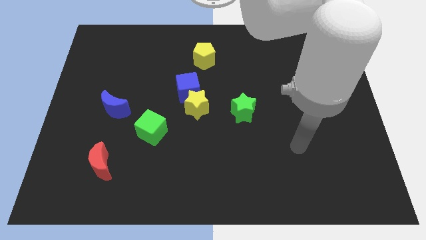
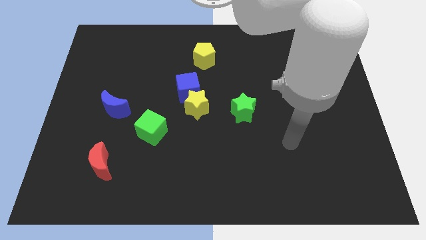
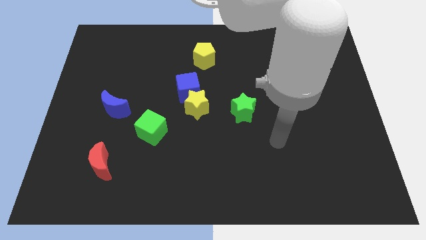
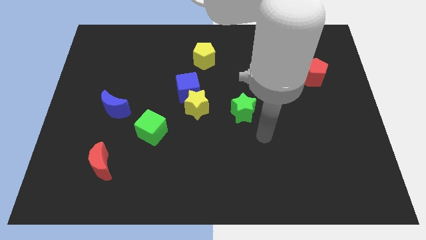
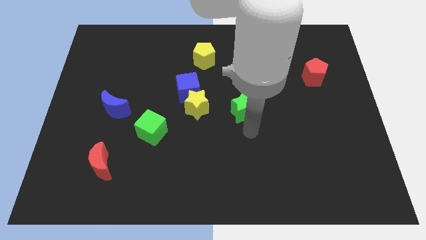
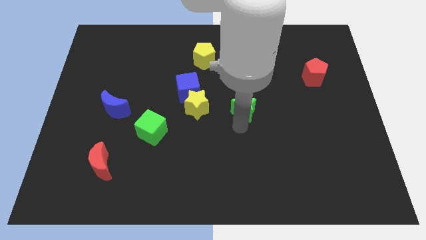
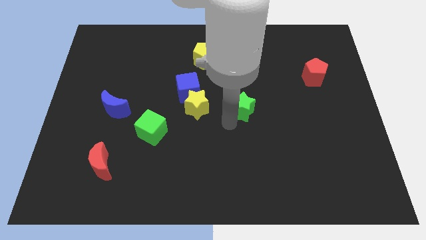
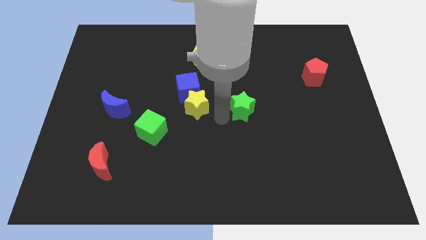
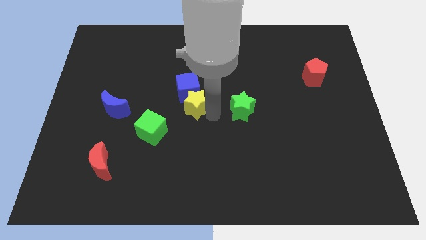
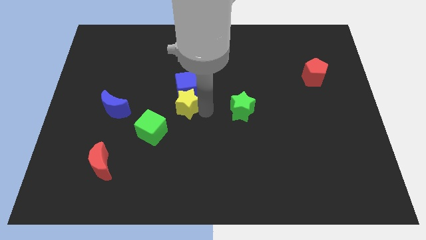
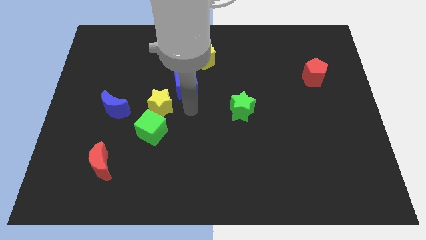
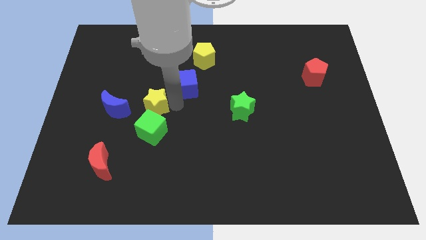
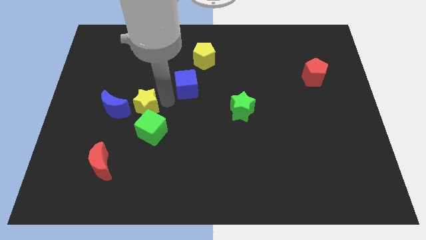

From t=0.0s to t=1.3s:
move the blue cube away from the yellow star

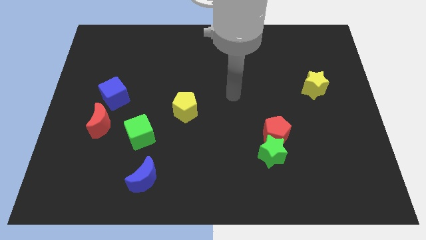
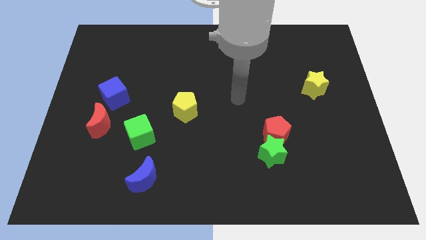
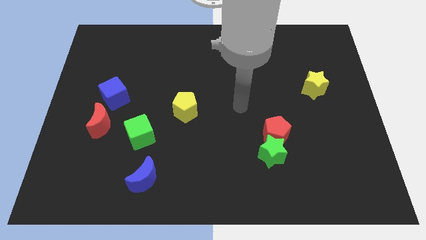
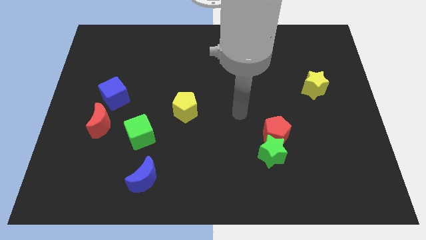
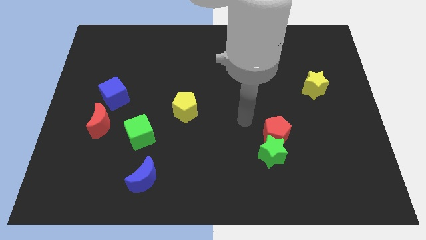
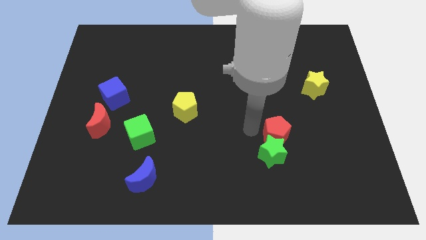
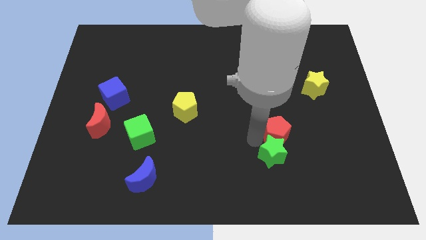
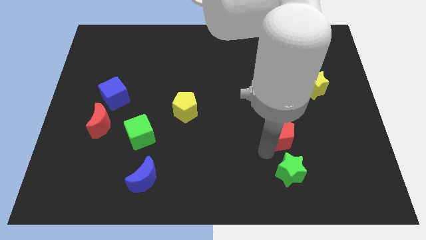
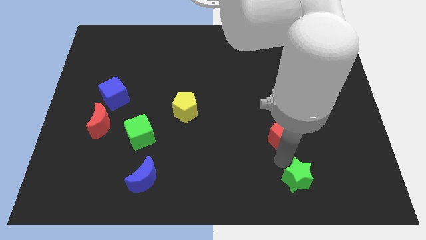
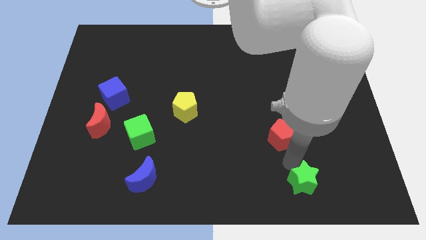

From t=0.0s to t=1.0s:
separate the red pentagon from the green star

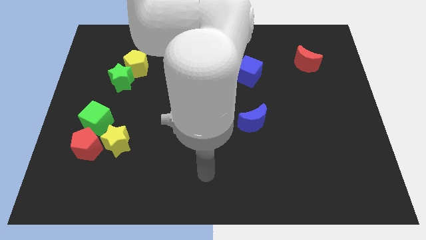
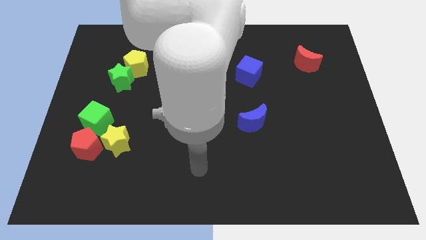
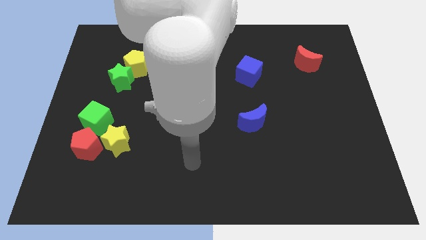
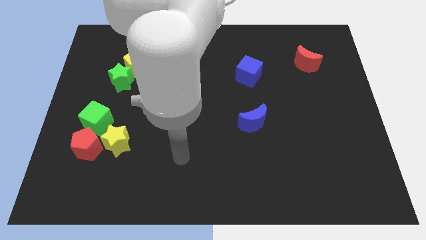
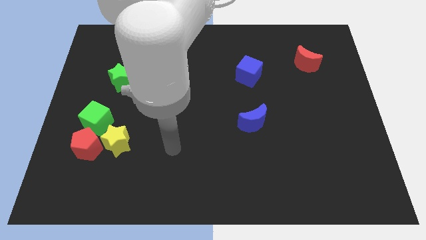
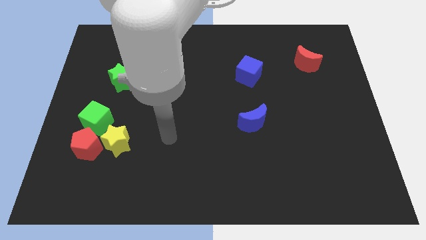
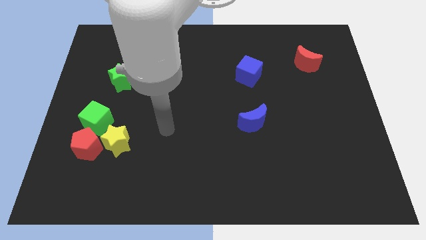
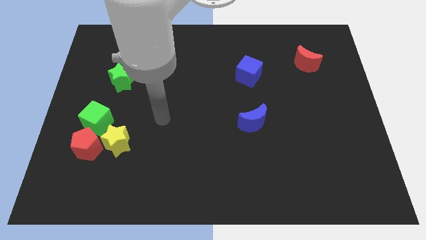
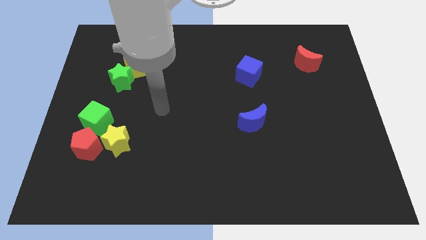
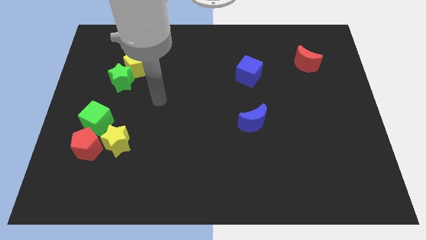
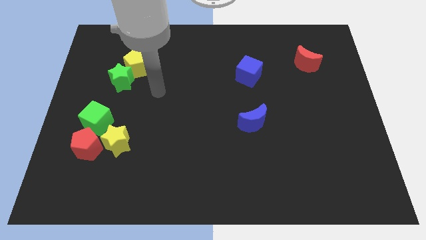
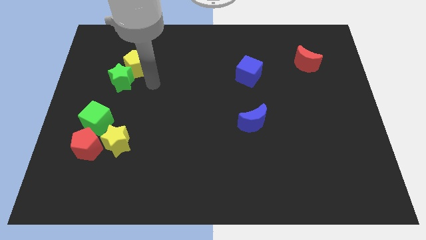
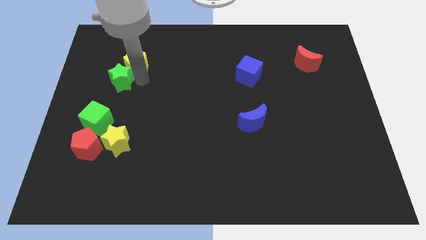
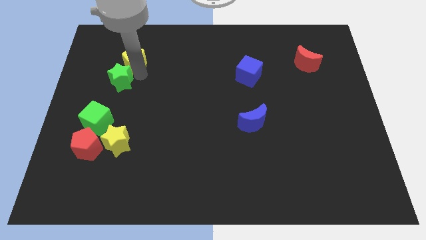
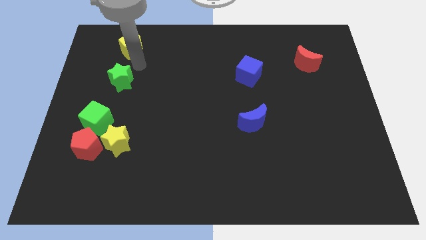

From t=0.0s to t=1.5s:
separate the green star from the yellow pentagon

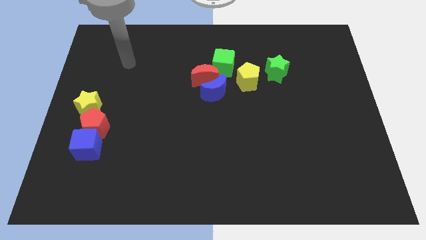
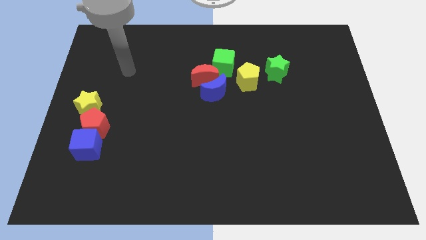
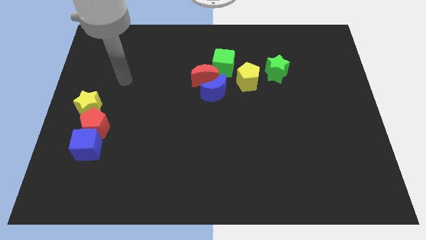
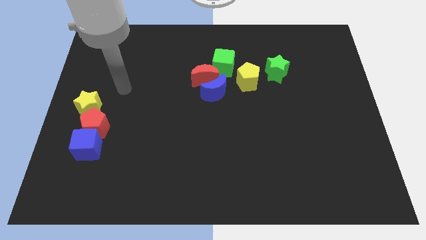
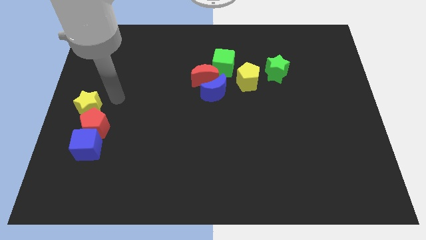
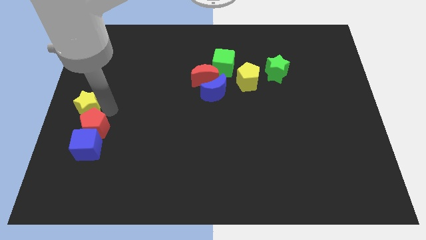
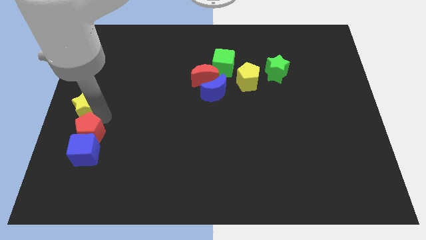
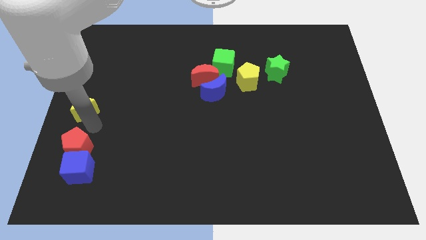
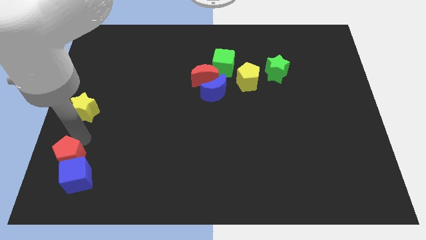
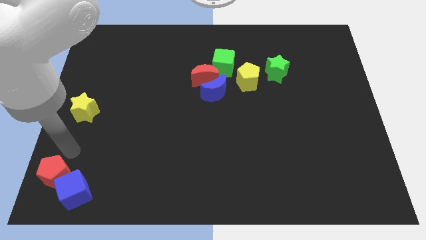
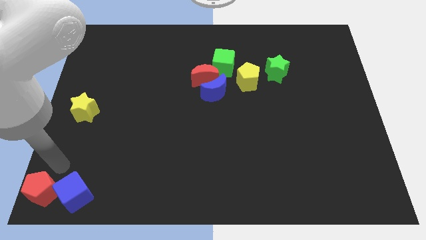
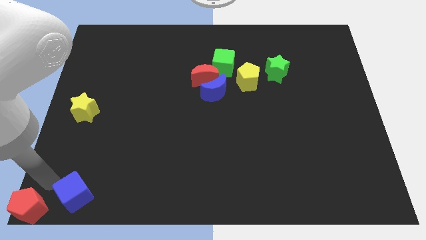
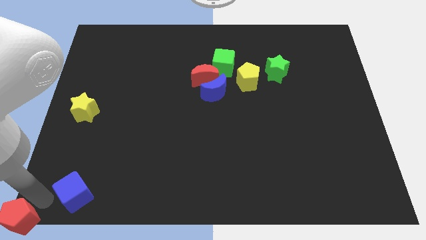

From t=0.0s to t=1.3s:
separate the blue cube from the red pentagon

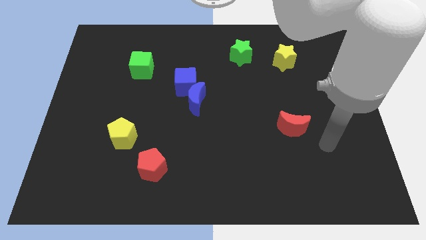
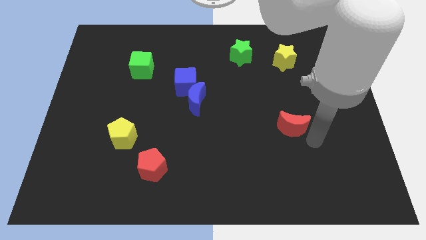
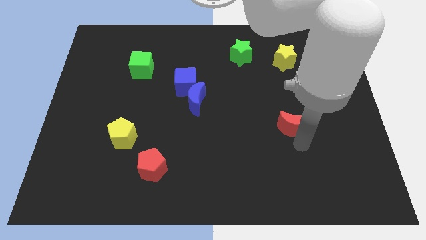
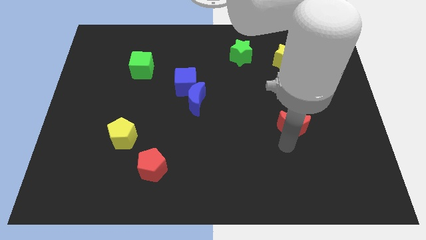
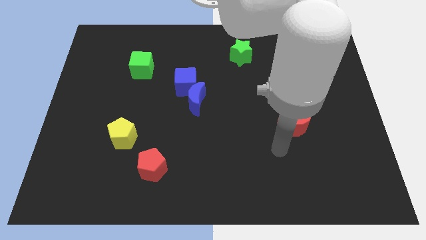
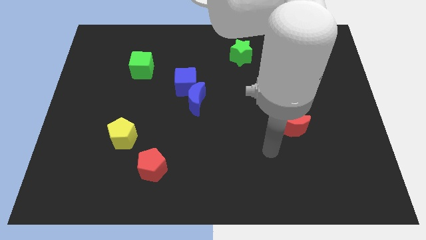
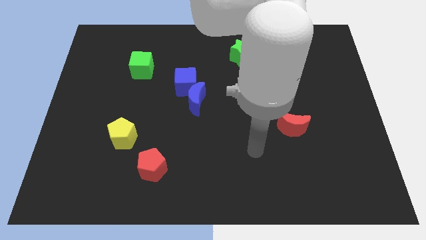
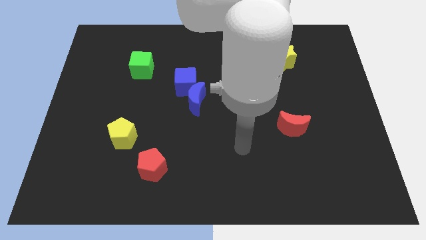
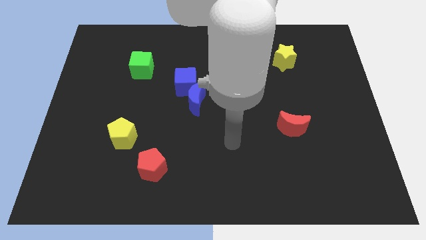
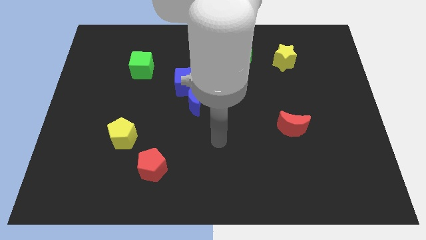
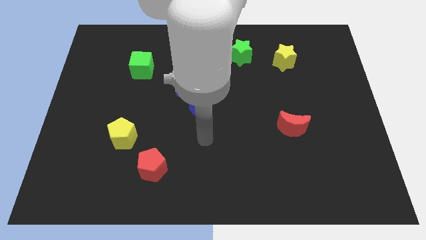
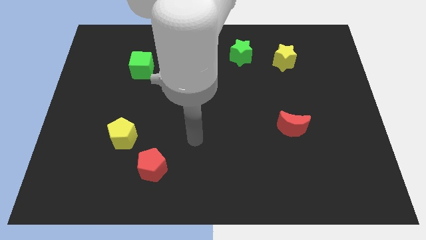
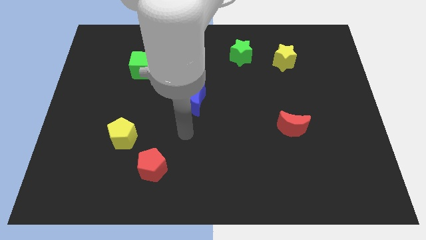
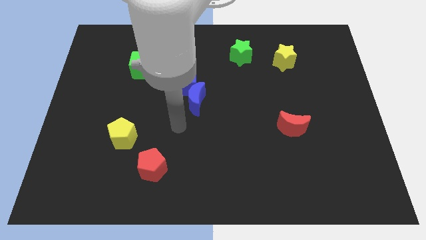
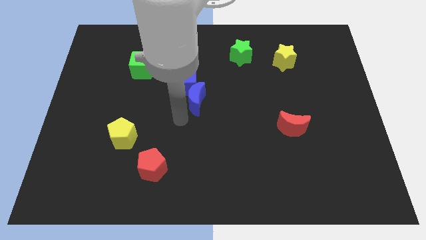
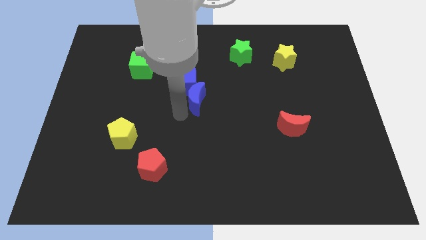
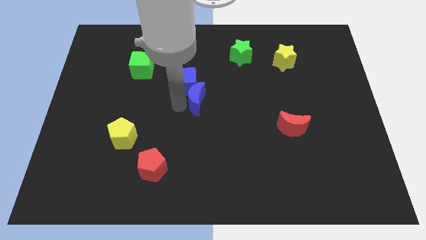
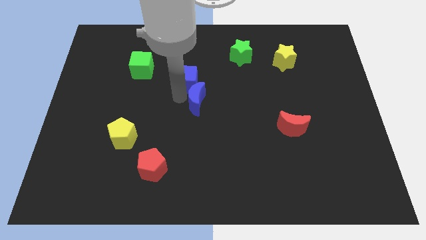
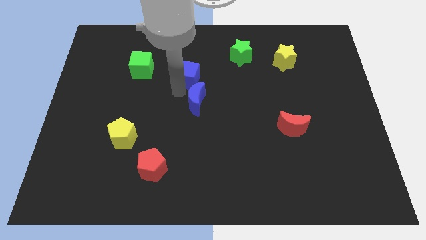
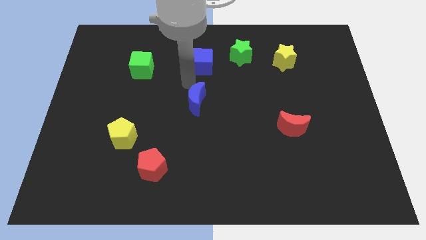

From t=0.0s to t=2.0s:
move the blue moon away from the blue cube

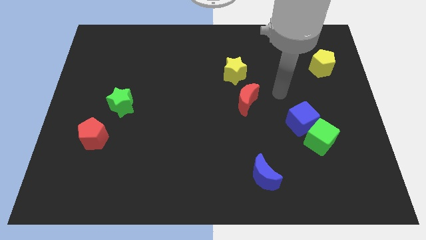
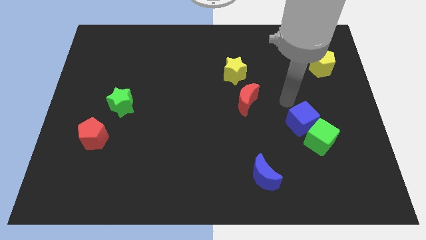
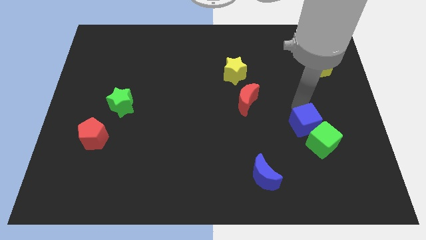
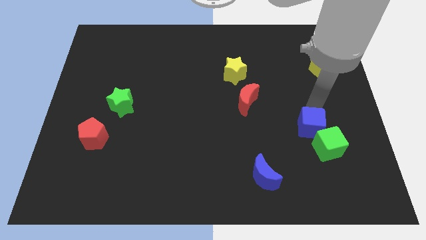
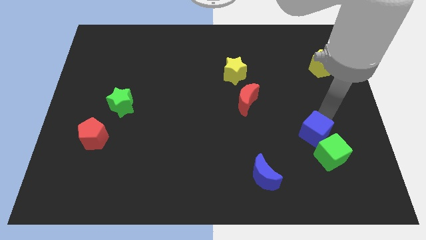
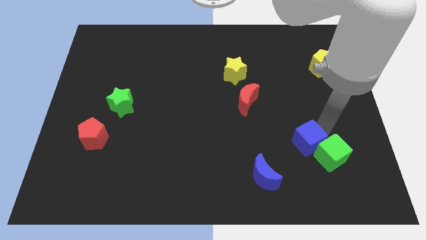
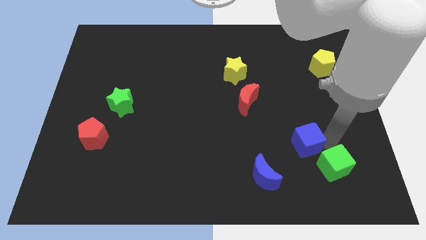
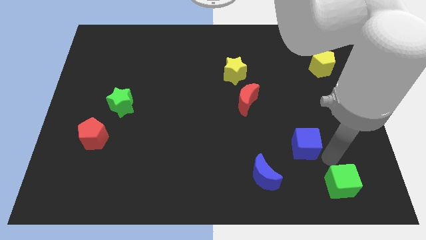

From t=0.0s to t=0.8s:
pull the blue cube apart from the green cube

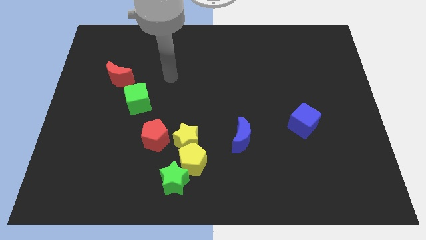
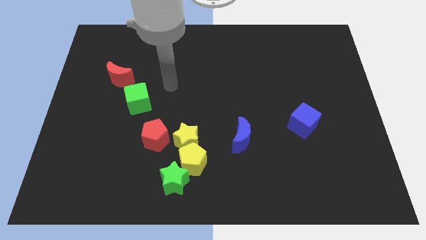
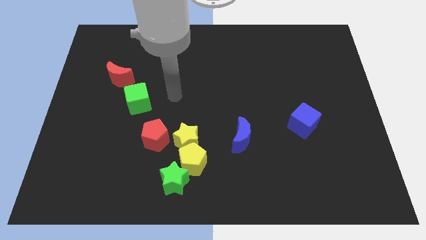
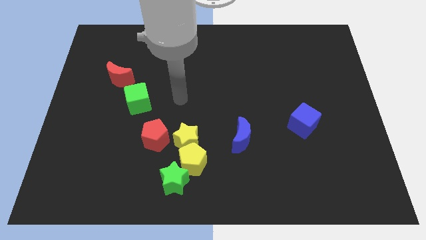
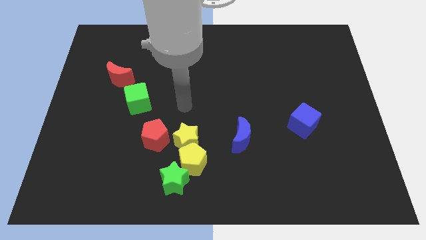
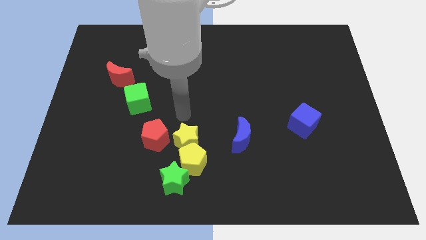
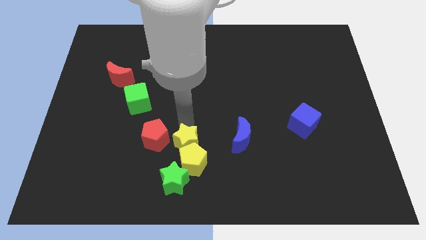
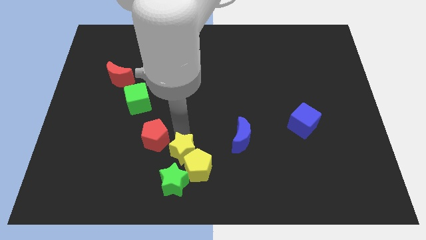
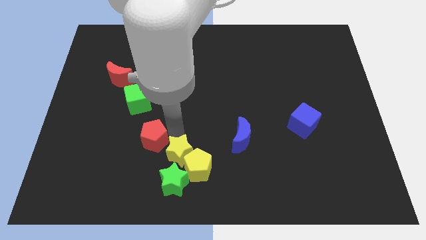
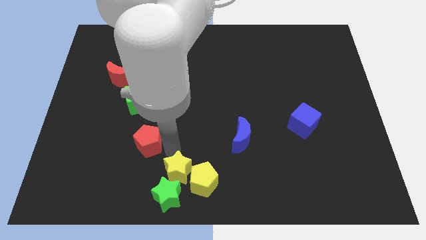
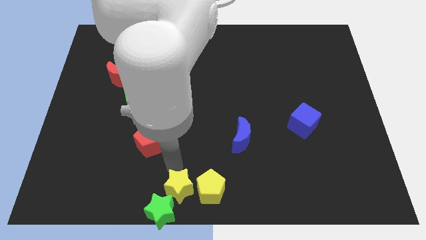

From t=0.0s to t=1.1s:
move the yellow pentagon away from the group

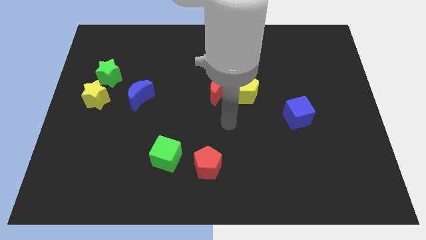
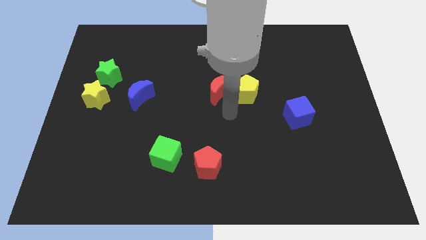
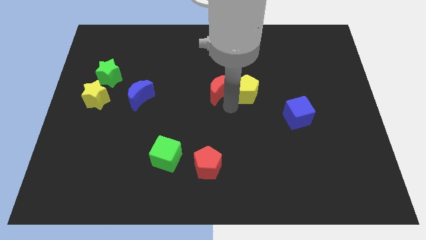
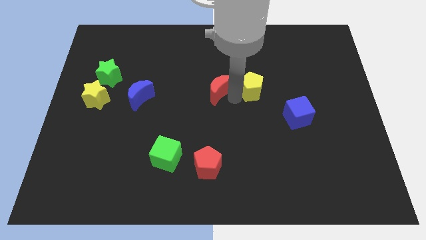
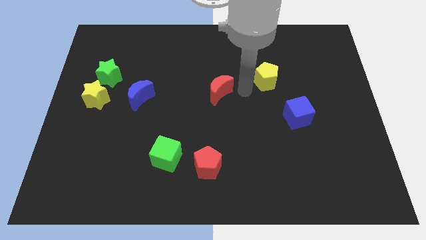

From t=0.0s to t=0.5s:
move the red moon away from the yellow pentagon
